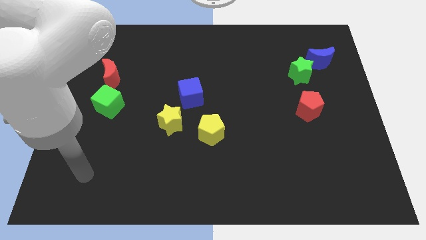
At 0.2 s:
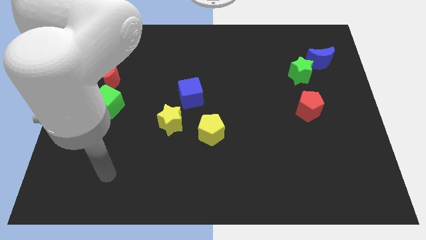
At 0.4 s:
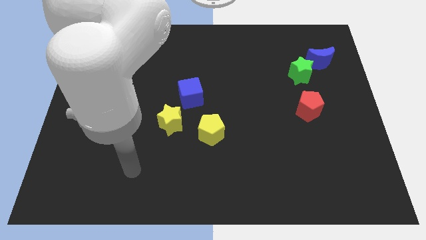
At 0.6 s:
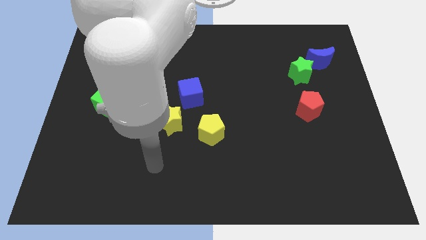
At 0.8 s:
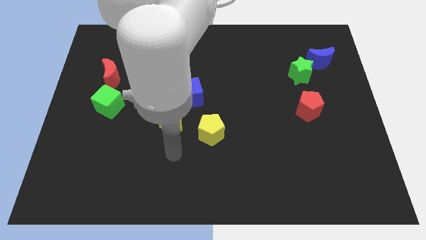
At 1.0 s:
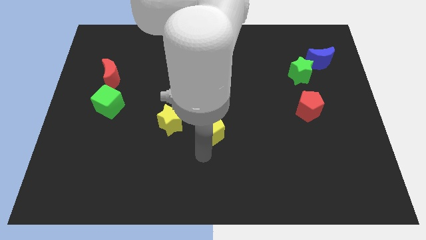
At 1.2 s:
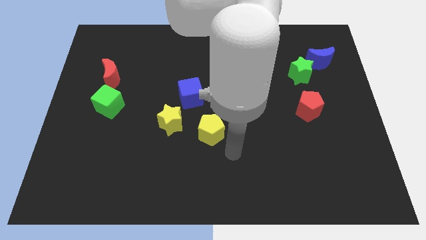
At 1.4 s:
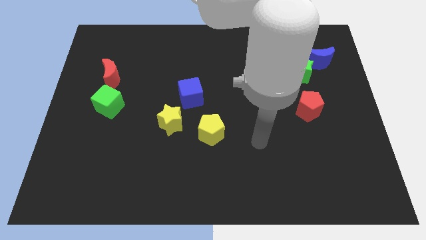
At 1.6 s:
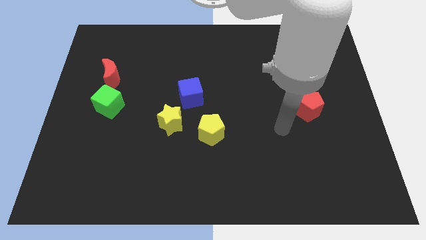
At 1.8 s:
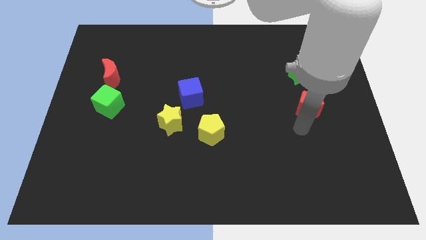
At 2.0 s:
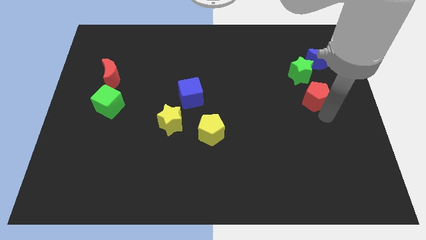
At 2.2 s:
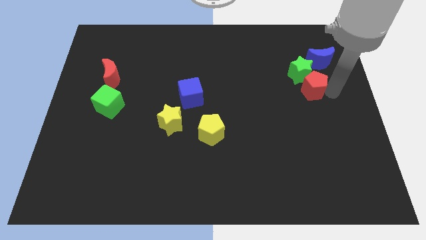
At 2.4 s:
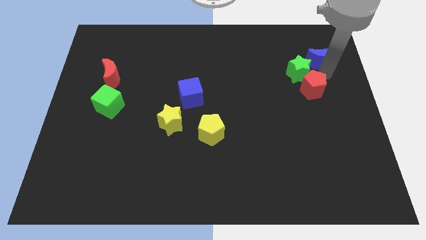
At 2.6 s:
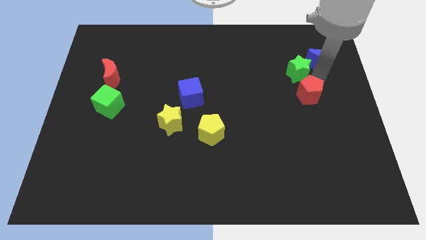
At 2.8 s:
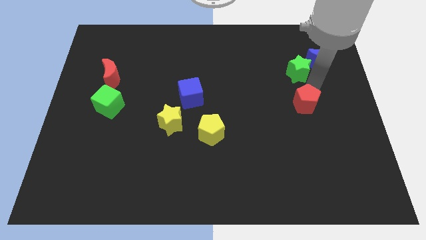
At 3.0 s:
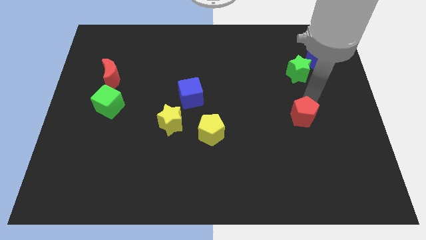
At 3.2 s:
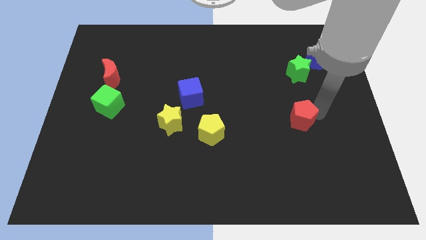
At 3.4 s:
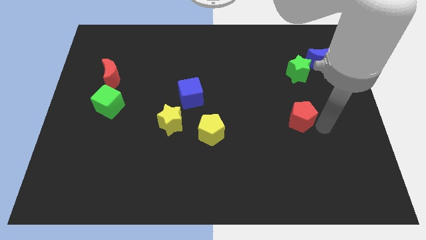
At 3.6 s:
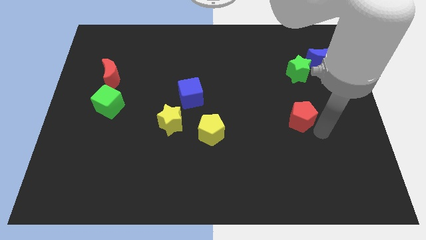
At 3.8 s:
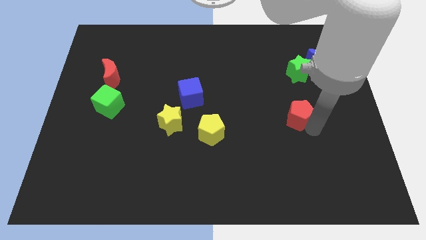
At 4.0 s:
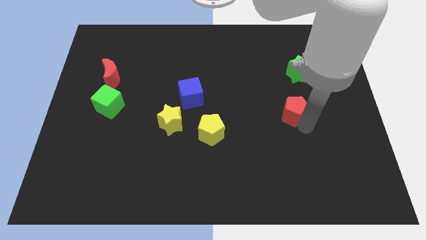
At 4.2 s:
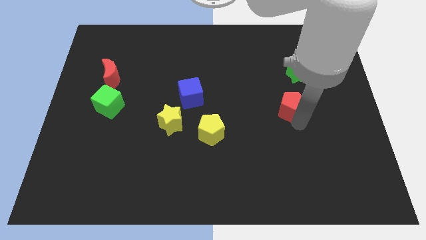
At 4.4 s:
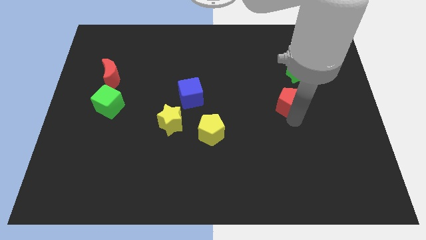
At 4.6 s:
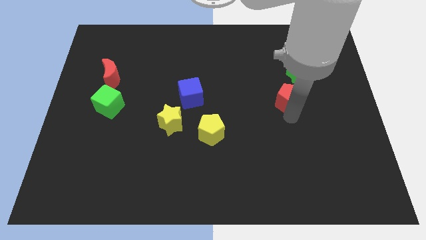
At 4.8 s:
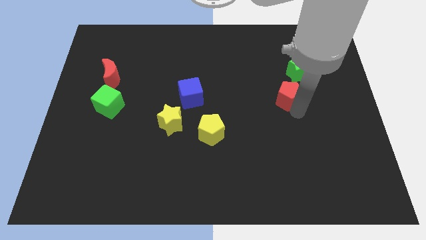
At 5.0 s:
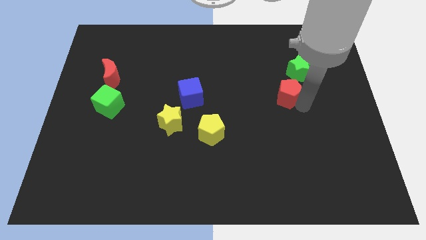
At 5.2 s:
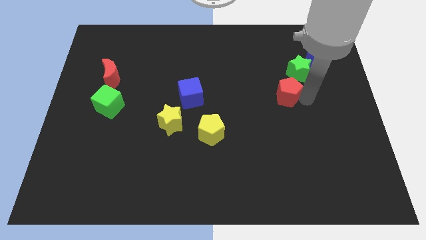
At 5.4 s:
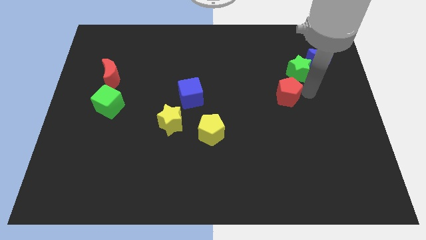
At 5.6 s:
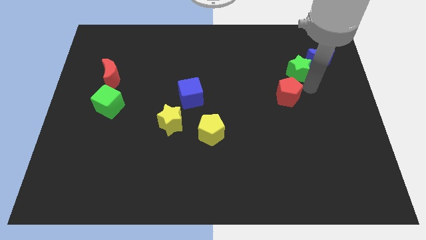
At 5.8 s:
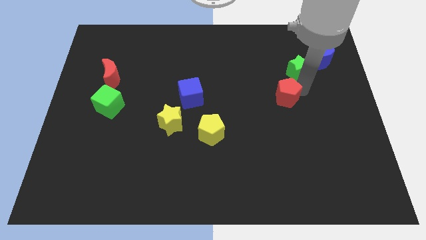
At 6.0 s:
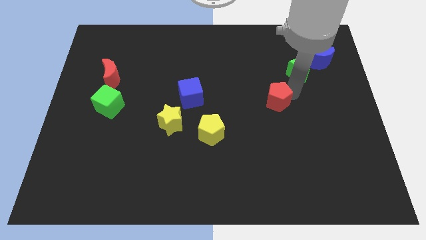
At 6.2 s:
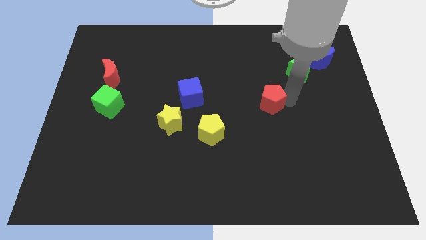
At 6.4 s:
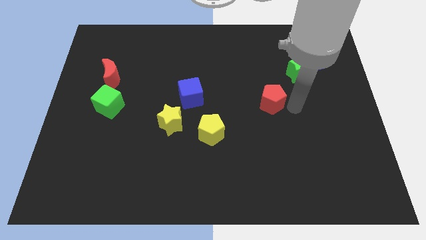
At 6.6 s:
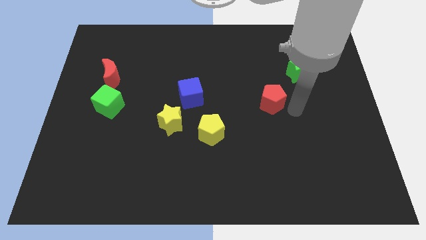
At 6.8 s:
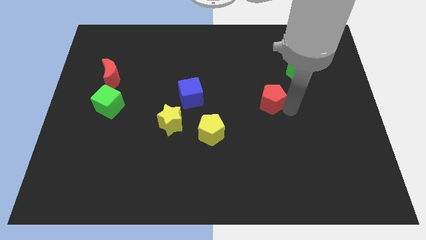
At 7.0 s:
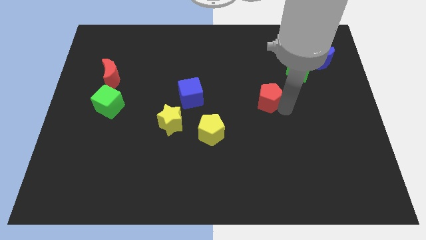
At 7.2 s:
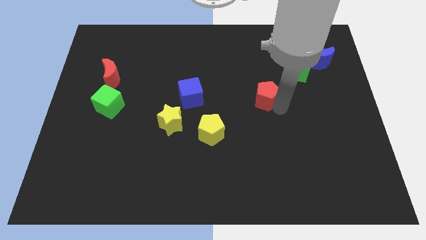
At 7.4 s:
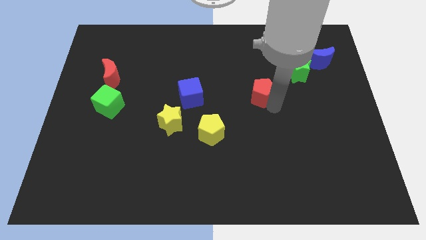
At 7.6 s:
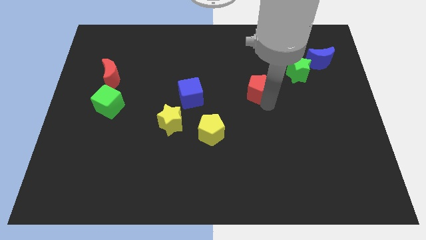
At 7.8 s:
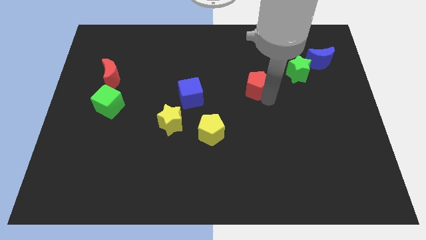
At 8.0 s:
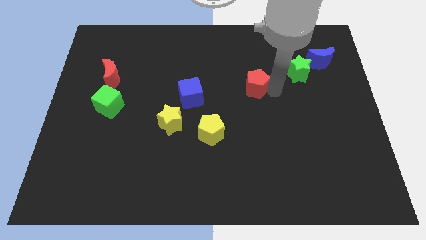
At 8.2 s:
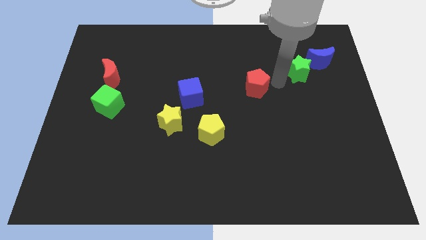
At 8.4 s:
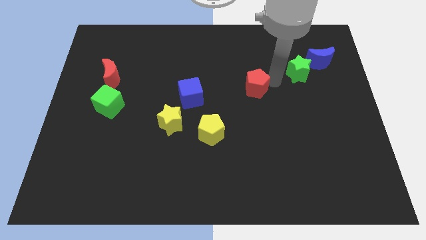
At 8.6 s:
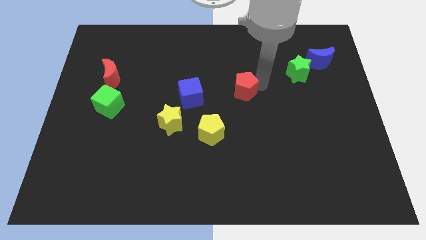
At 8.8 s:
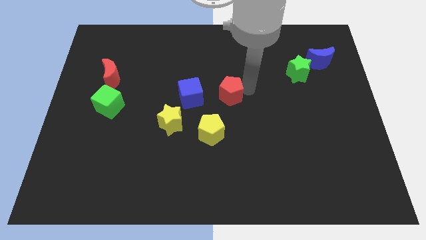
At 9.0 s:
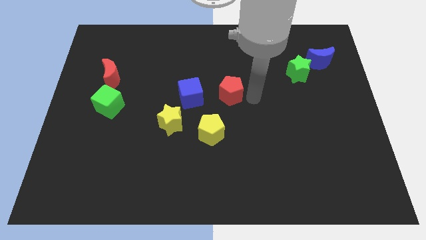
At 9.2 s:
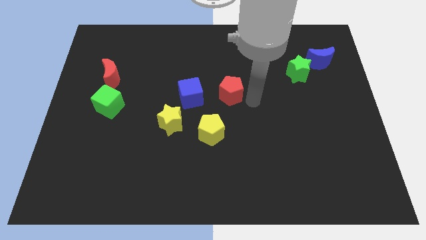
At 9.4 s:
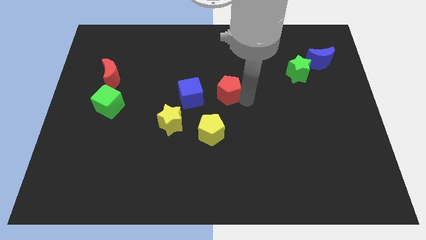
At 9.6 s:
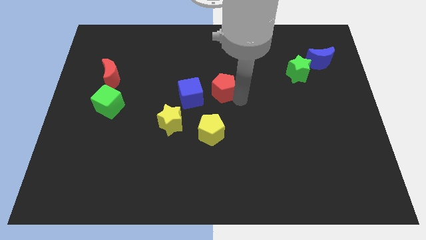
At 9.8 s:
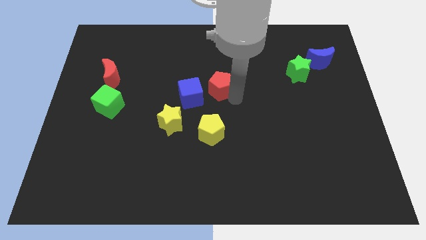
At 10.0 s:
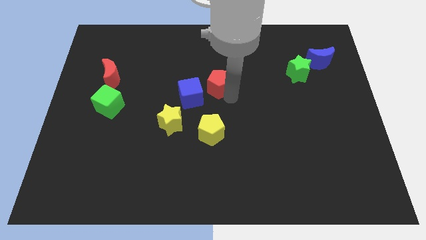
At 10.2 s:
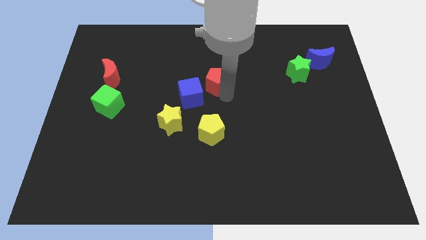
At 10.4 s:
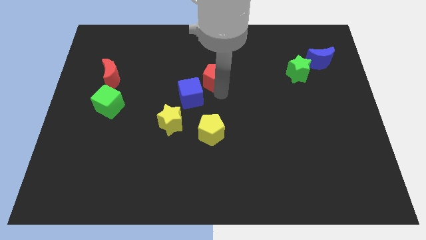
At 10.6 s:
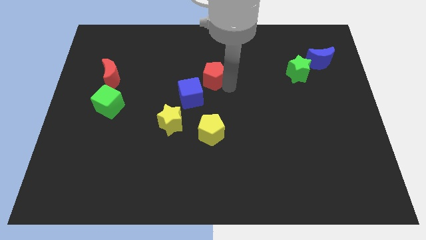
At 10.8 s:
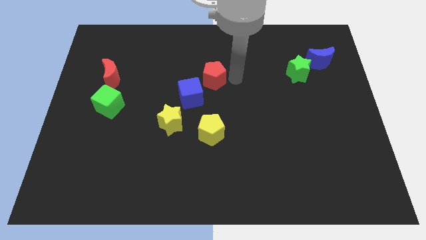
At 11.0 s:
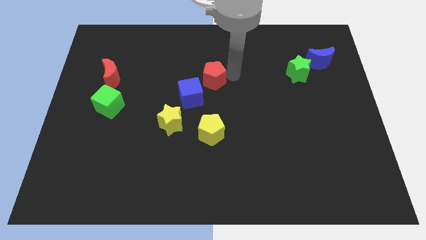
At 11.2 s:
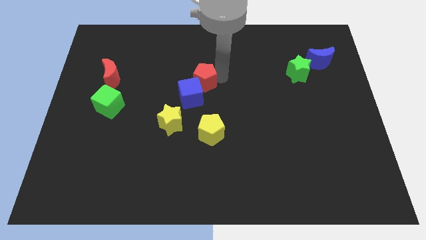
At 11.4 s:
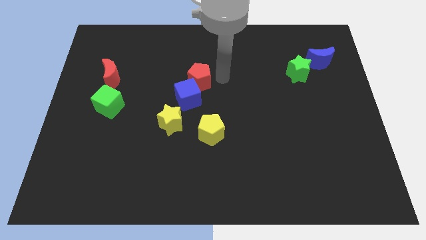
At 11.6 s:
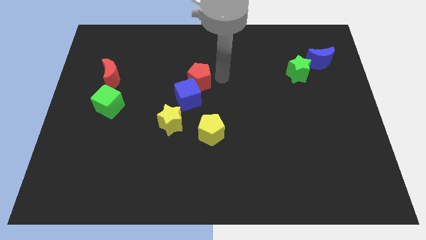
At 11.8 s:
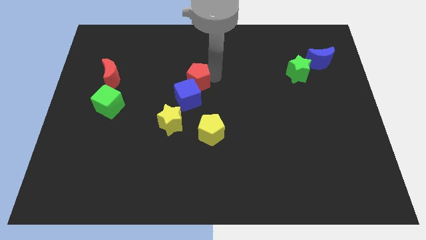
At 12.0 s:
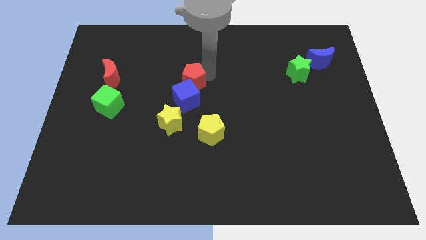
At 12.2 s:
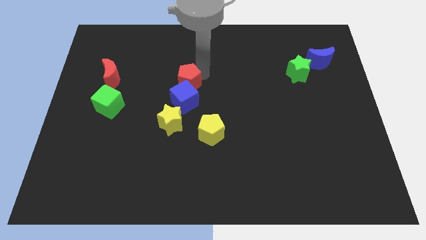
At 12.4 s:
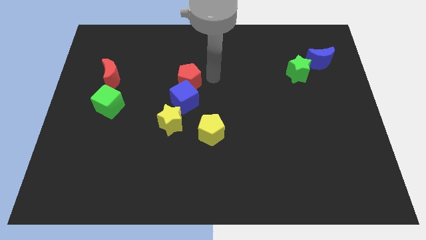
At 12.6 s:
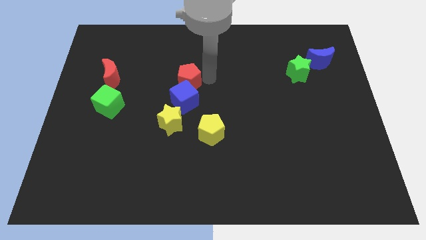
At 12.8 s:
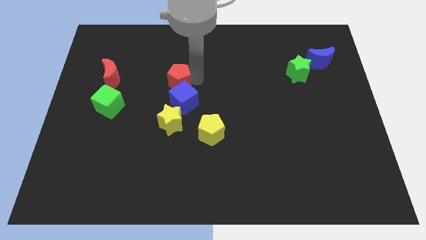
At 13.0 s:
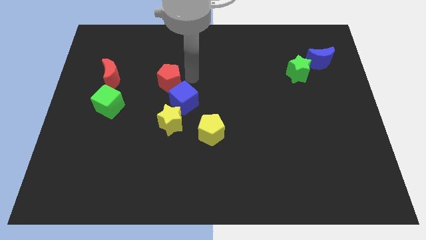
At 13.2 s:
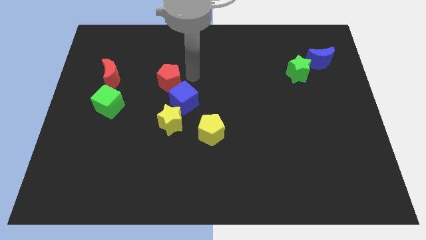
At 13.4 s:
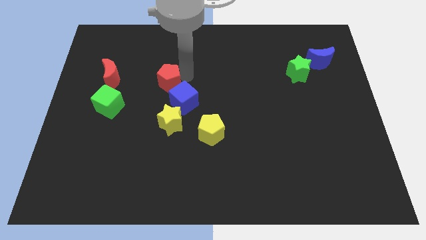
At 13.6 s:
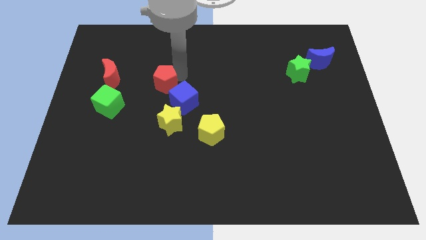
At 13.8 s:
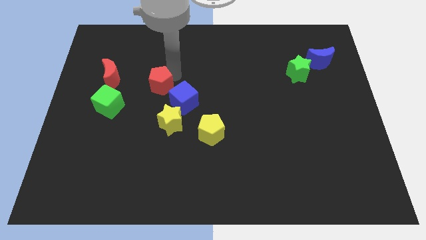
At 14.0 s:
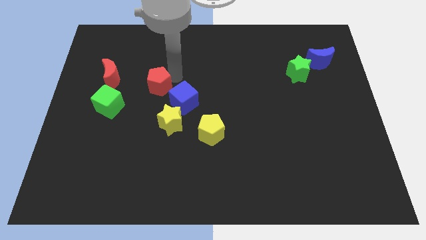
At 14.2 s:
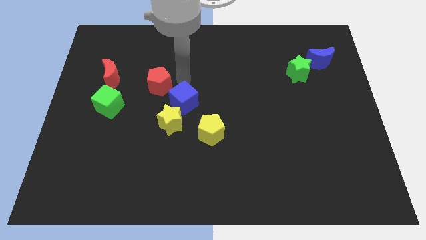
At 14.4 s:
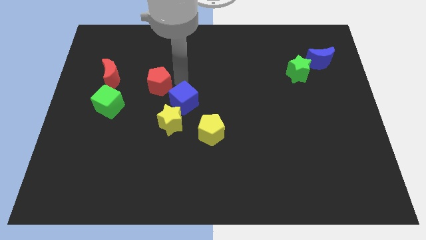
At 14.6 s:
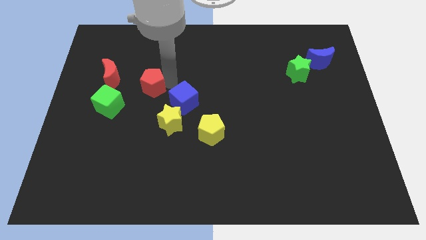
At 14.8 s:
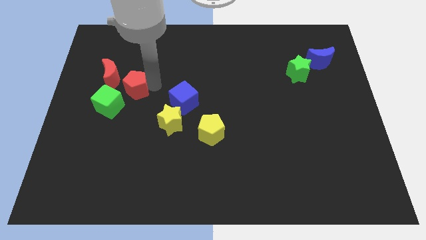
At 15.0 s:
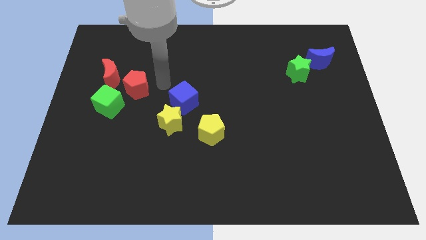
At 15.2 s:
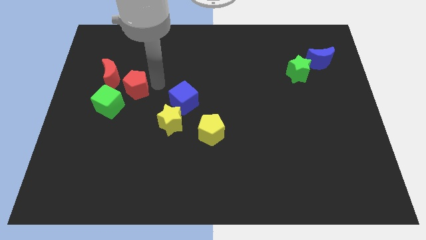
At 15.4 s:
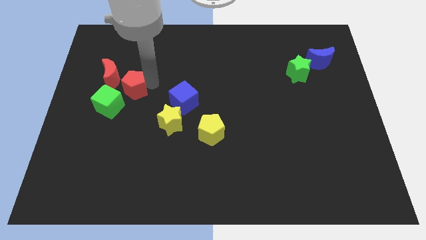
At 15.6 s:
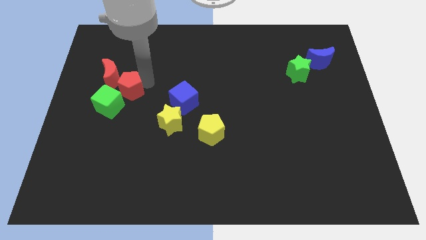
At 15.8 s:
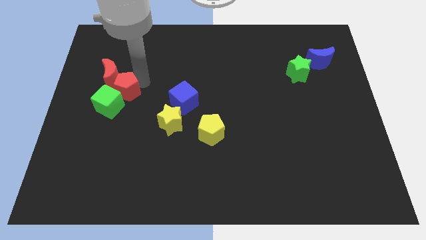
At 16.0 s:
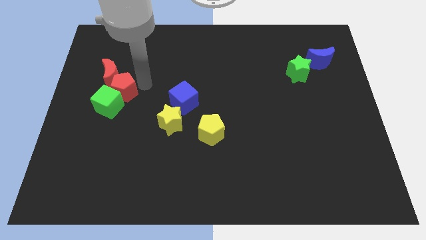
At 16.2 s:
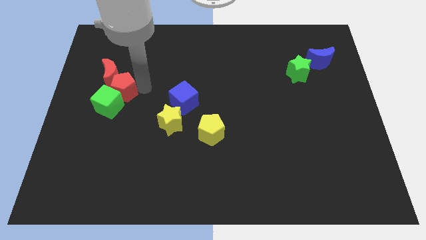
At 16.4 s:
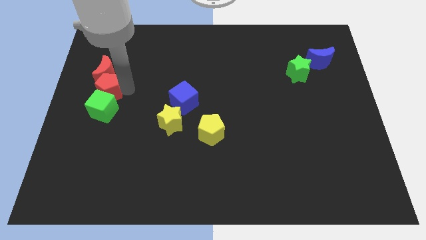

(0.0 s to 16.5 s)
put the red pentagon to the left side of the board
